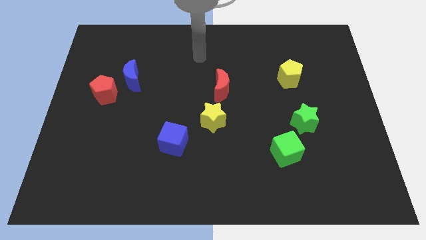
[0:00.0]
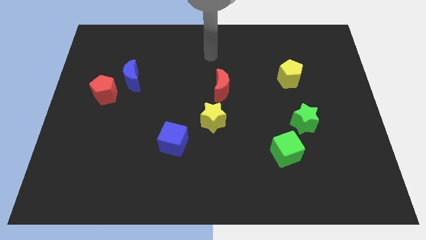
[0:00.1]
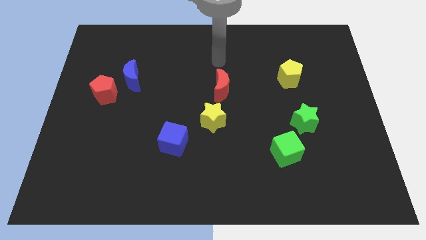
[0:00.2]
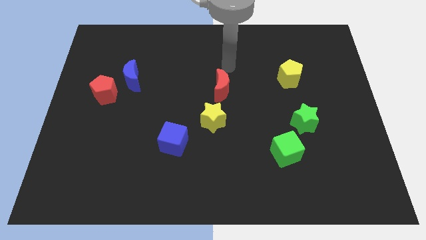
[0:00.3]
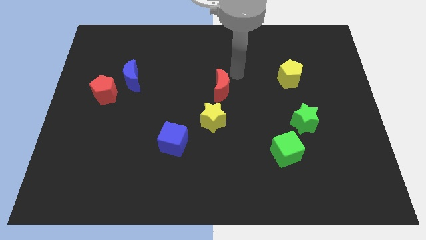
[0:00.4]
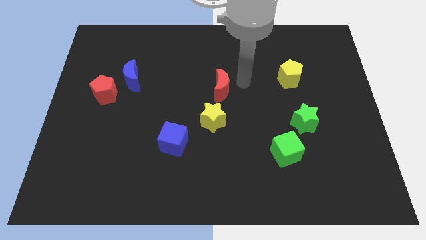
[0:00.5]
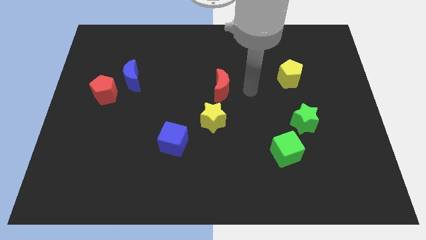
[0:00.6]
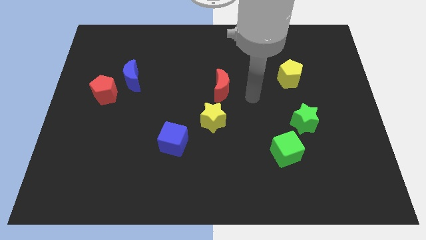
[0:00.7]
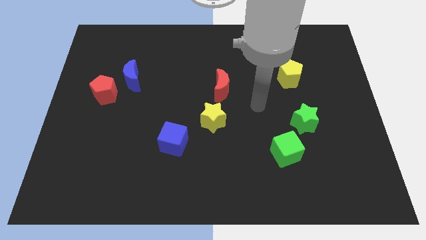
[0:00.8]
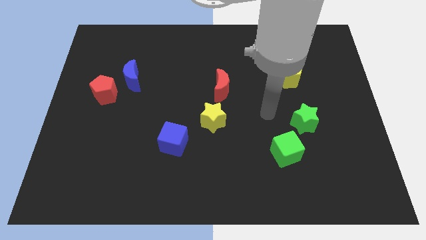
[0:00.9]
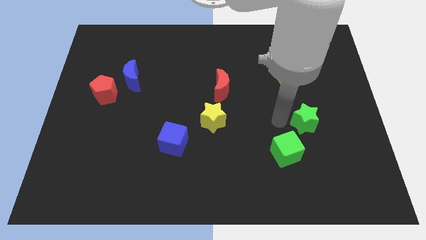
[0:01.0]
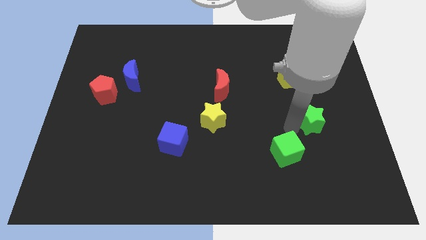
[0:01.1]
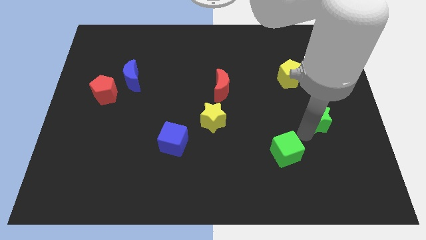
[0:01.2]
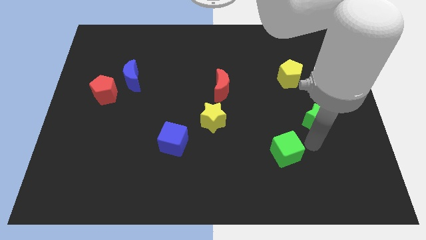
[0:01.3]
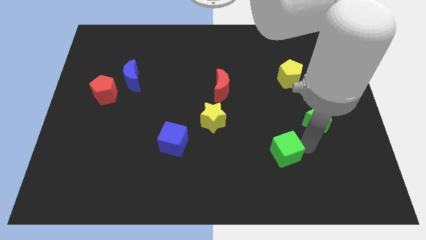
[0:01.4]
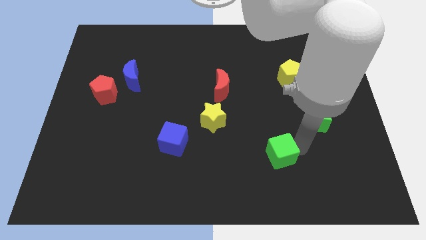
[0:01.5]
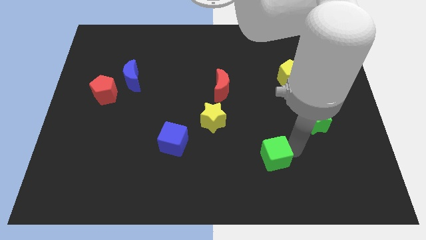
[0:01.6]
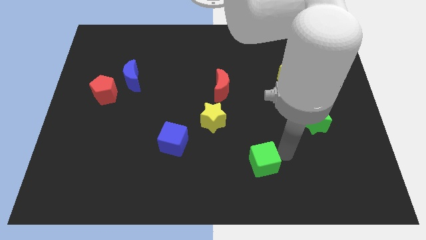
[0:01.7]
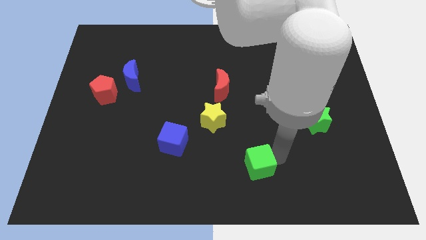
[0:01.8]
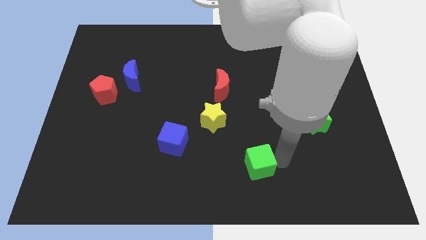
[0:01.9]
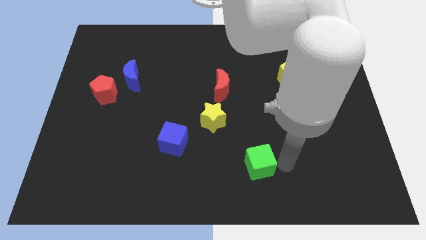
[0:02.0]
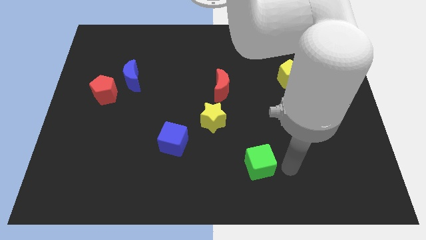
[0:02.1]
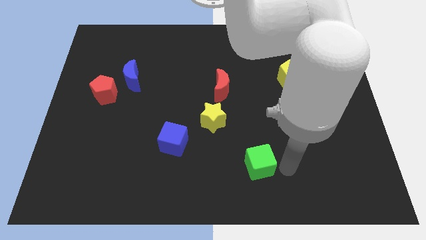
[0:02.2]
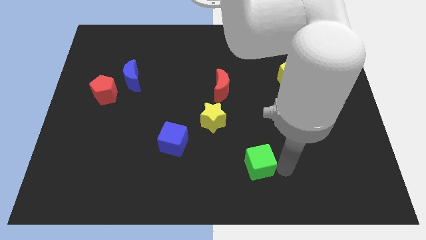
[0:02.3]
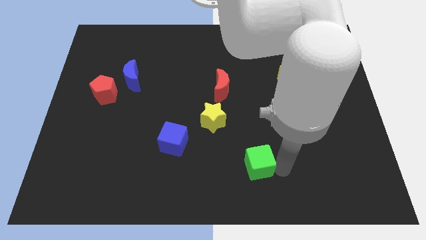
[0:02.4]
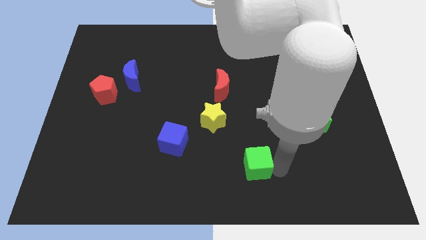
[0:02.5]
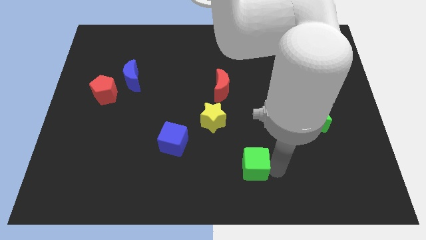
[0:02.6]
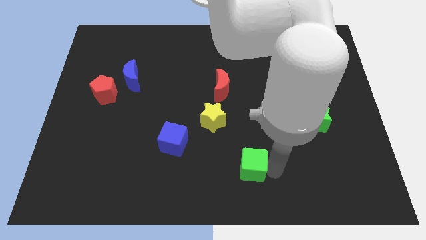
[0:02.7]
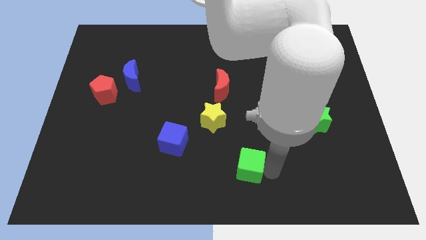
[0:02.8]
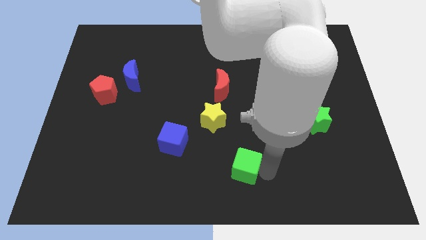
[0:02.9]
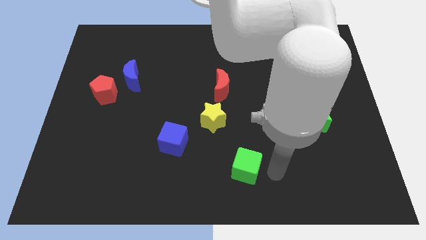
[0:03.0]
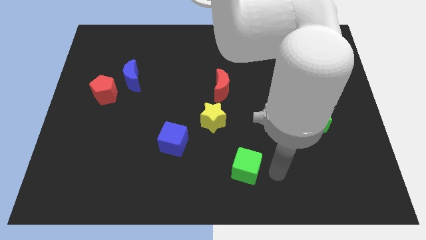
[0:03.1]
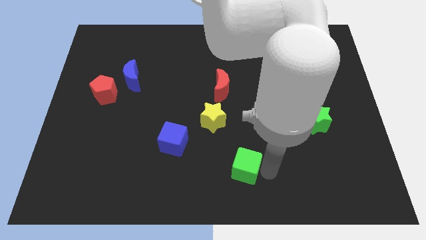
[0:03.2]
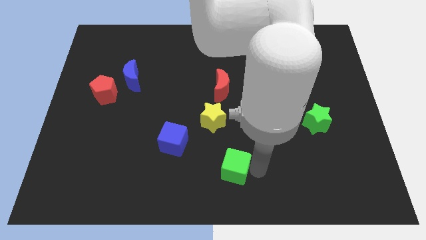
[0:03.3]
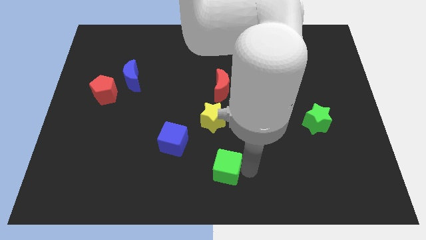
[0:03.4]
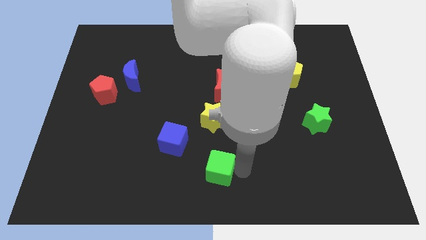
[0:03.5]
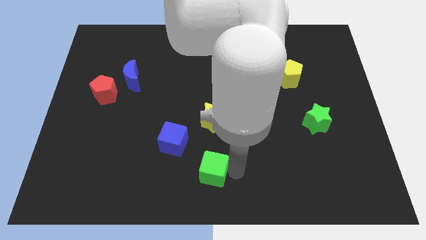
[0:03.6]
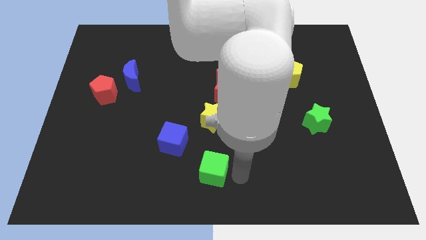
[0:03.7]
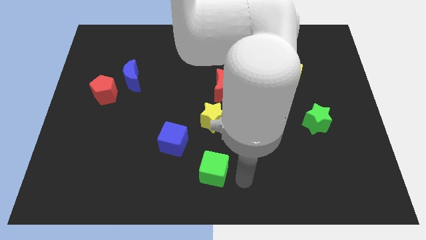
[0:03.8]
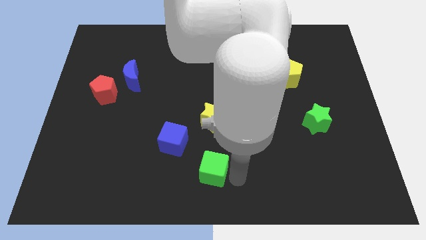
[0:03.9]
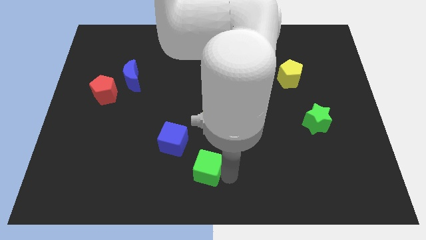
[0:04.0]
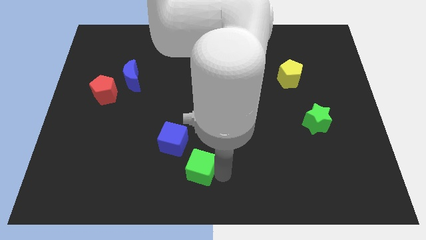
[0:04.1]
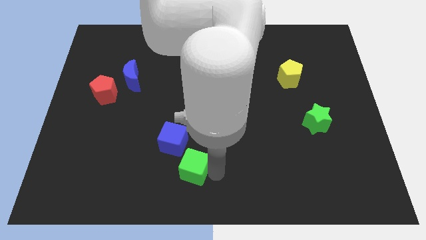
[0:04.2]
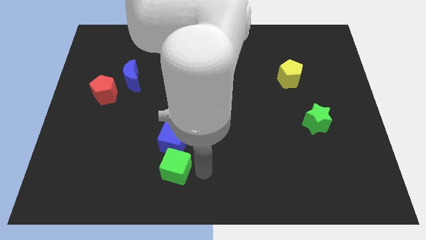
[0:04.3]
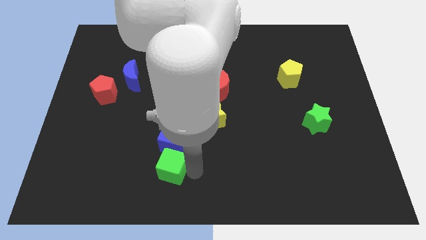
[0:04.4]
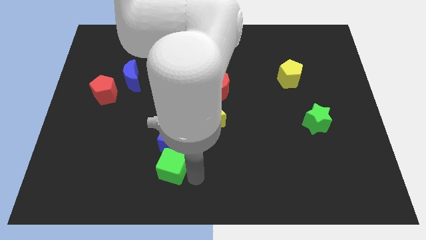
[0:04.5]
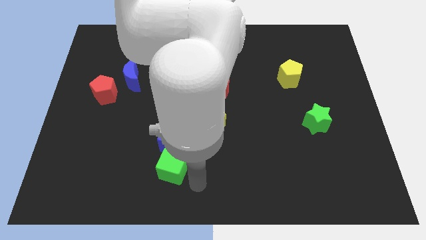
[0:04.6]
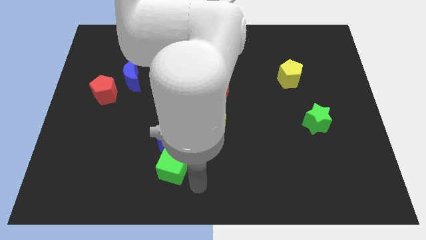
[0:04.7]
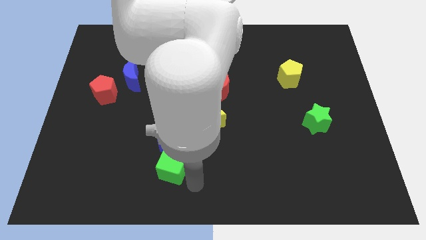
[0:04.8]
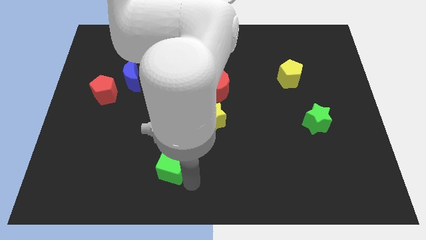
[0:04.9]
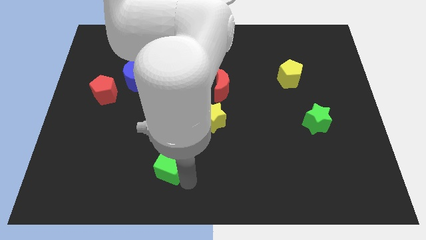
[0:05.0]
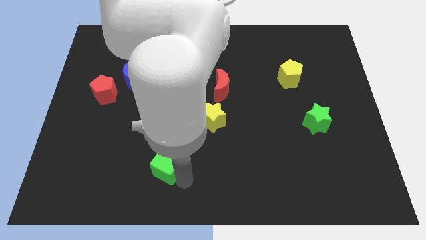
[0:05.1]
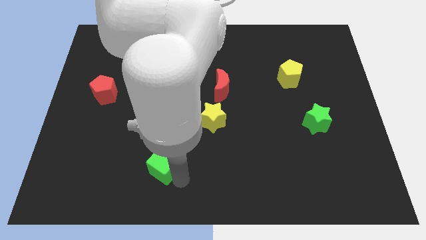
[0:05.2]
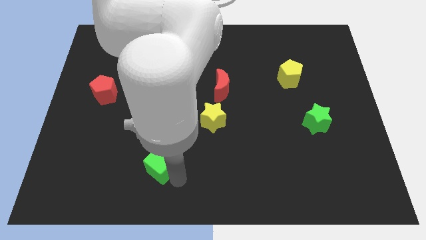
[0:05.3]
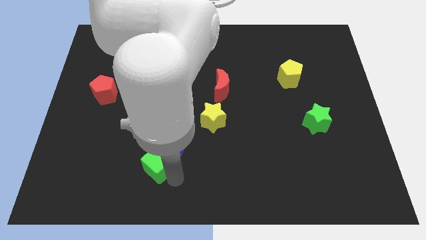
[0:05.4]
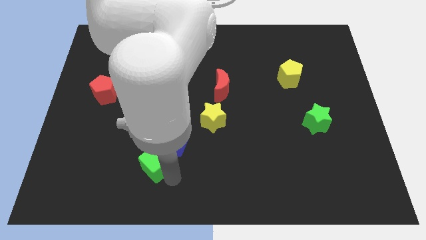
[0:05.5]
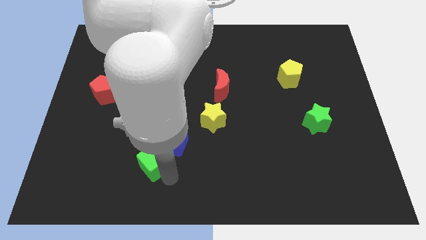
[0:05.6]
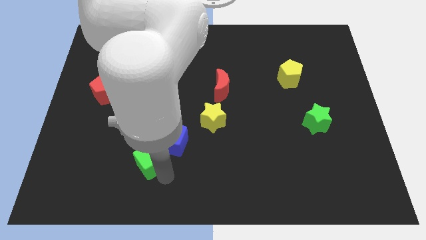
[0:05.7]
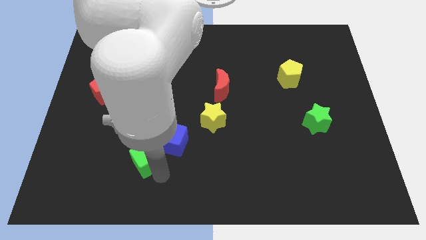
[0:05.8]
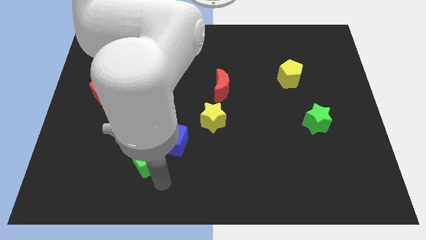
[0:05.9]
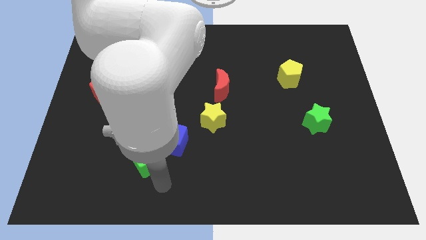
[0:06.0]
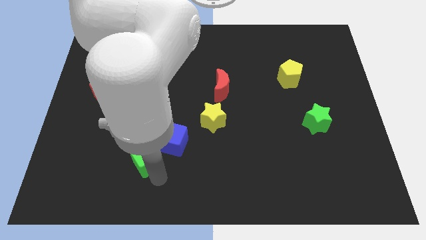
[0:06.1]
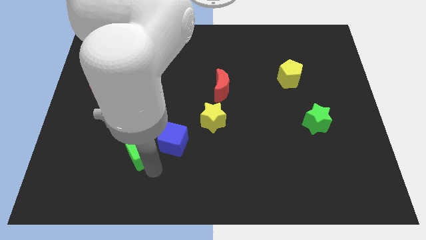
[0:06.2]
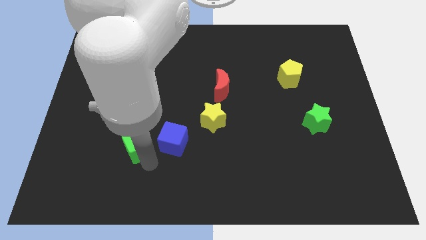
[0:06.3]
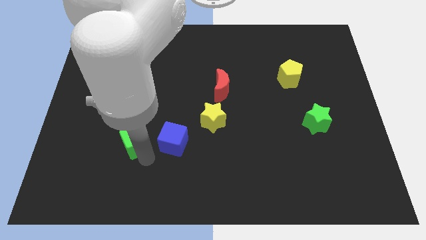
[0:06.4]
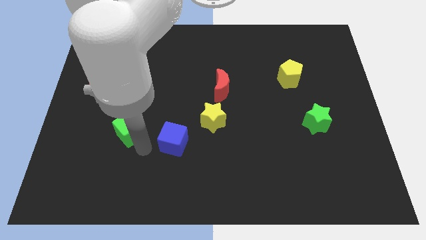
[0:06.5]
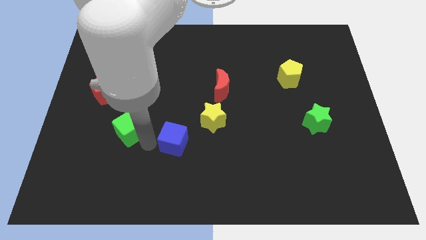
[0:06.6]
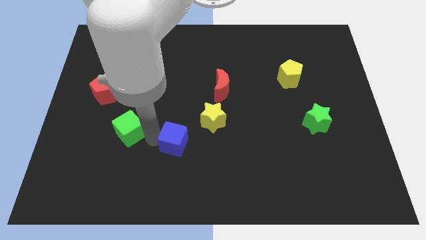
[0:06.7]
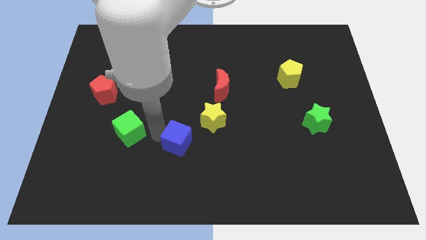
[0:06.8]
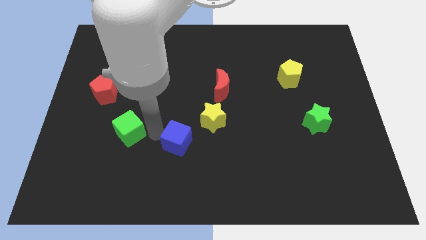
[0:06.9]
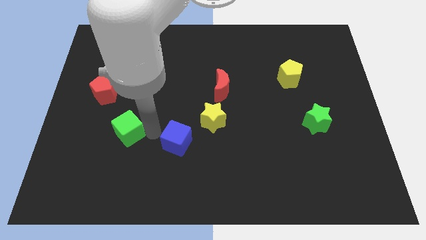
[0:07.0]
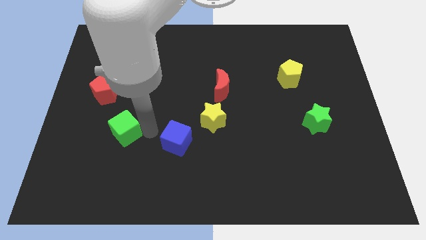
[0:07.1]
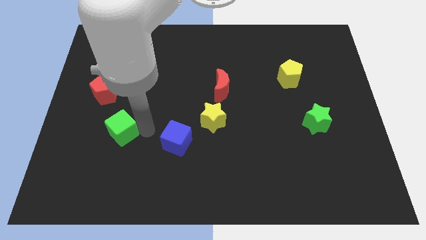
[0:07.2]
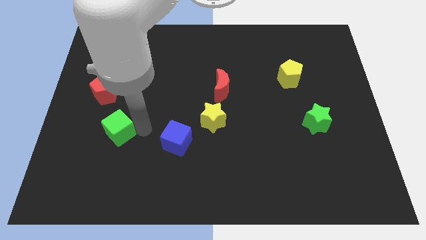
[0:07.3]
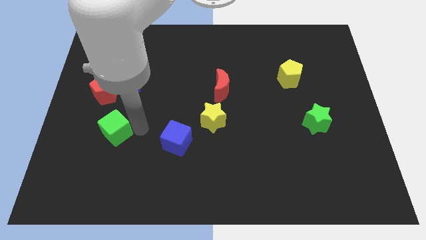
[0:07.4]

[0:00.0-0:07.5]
slide the green cube below the red pentagon
